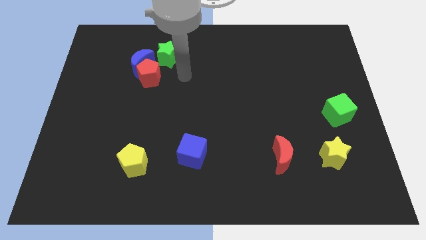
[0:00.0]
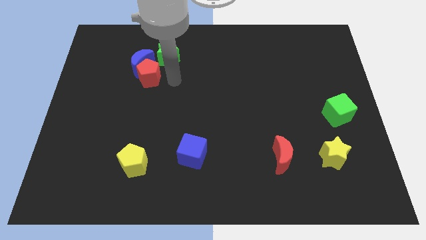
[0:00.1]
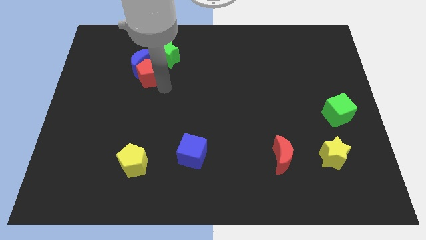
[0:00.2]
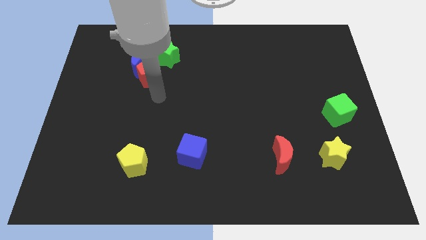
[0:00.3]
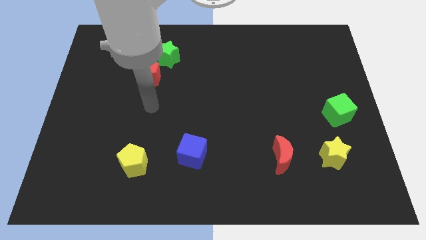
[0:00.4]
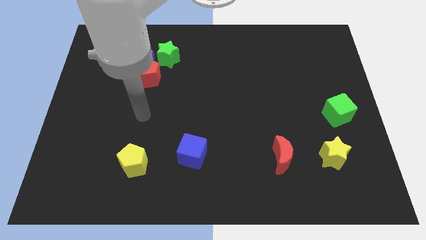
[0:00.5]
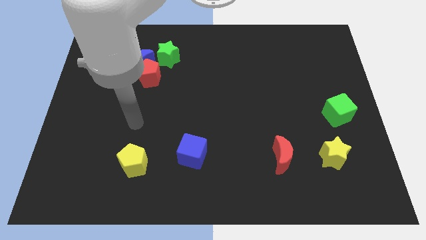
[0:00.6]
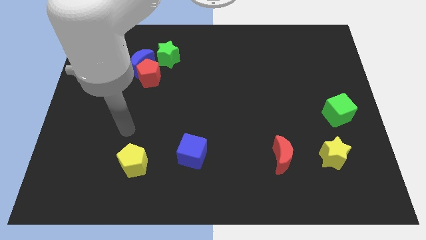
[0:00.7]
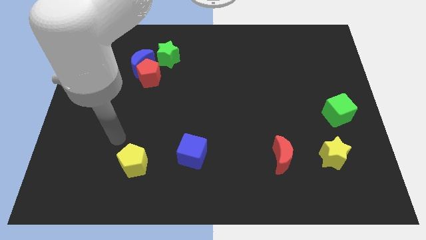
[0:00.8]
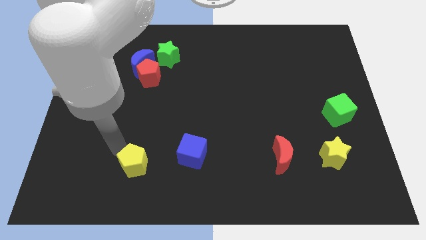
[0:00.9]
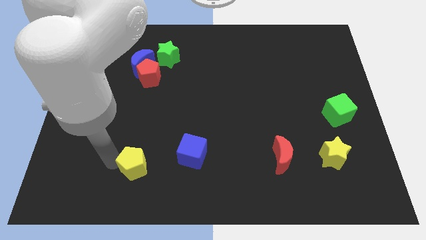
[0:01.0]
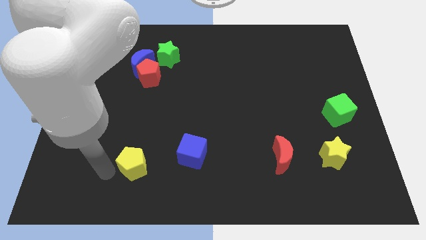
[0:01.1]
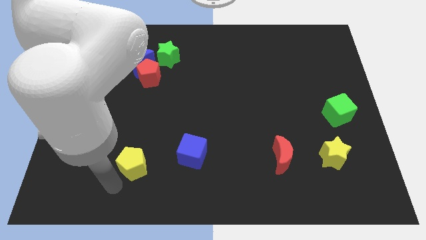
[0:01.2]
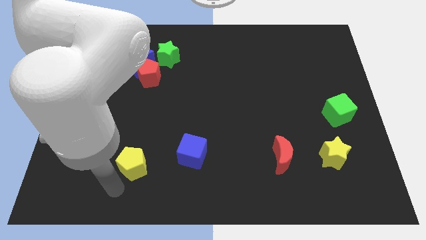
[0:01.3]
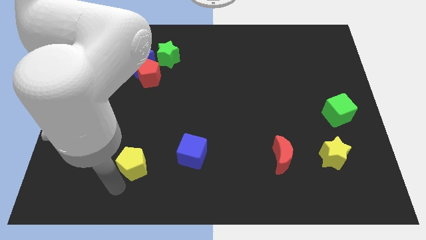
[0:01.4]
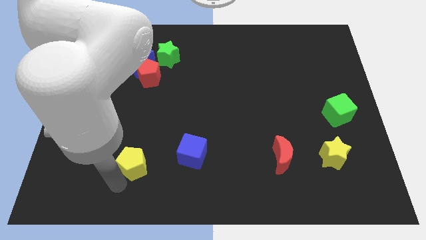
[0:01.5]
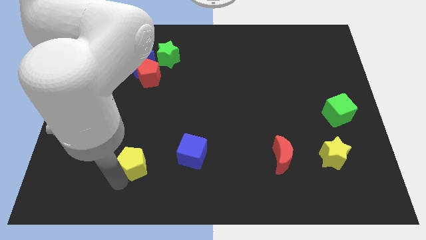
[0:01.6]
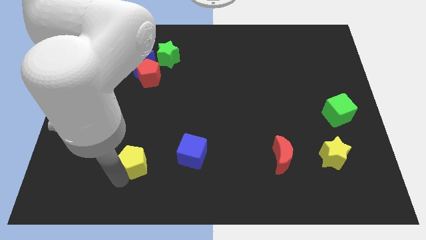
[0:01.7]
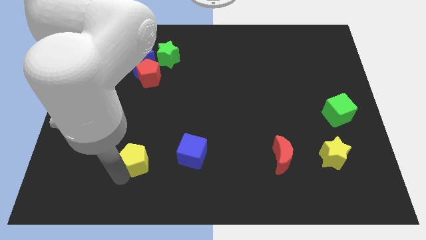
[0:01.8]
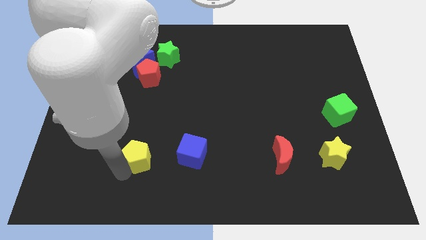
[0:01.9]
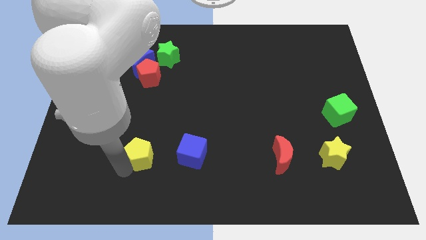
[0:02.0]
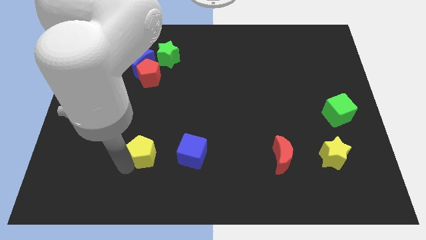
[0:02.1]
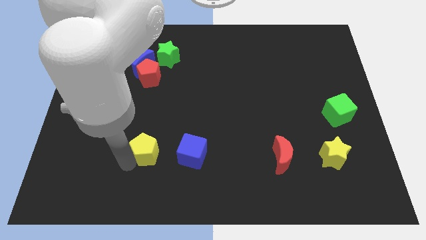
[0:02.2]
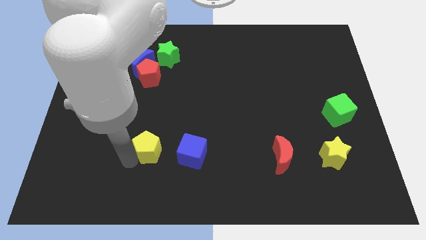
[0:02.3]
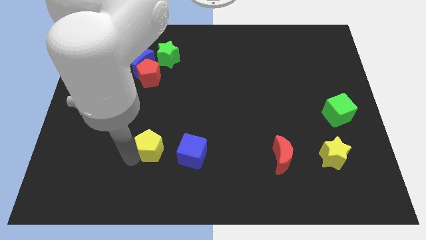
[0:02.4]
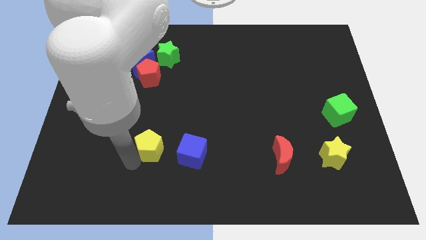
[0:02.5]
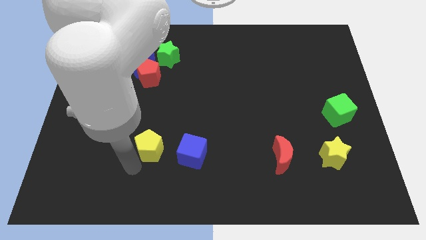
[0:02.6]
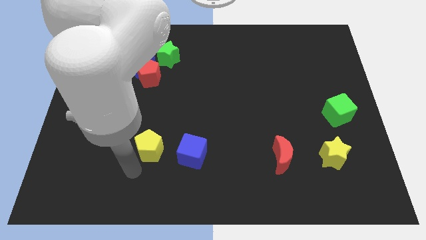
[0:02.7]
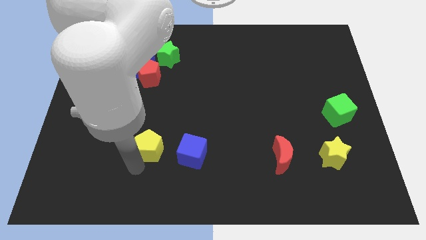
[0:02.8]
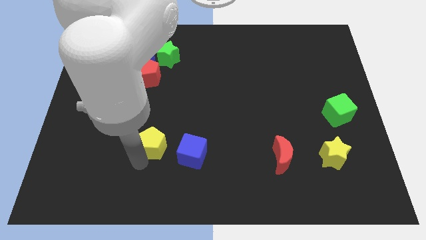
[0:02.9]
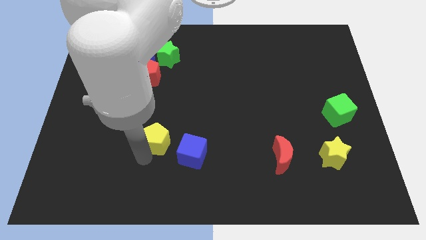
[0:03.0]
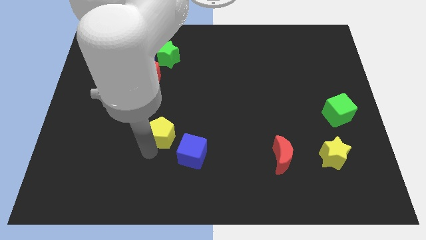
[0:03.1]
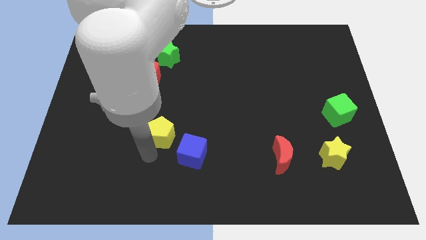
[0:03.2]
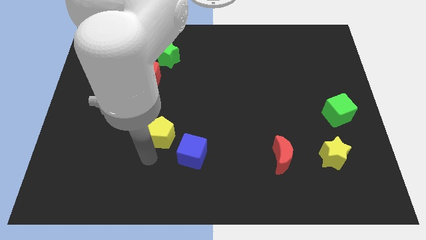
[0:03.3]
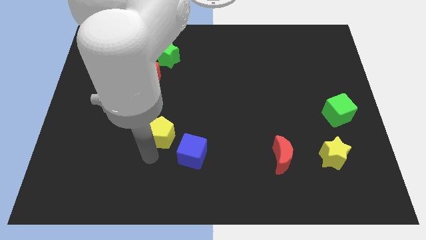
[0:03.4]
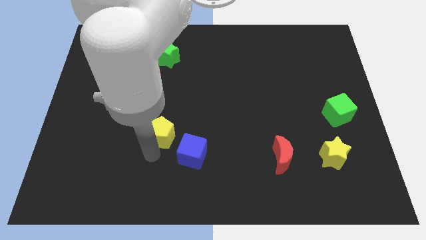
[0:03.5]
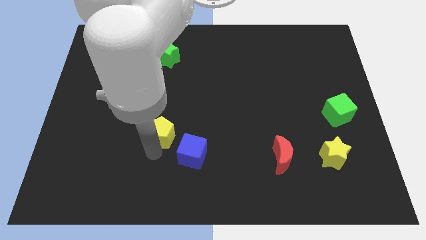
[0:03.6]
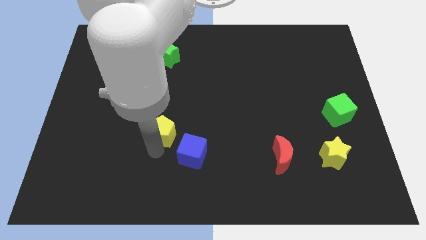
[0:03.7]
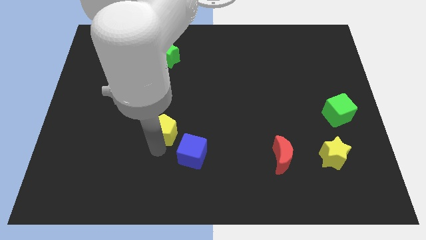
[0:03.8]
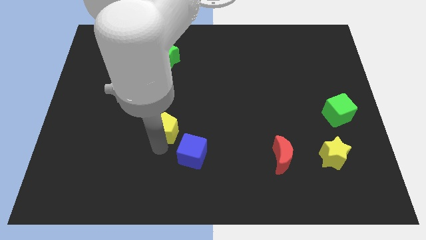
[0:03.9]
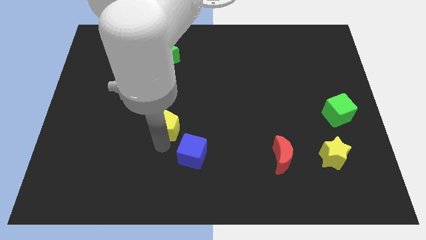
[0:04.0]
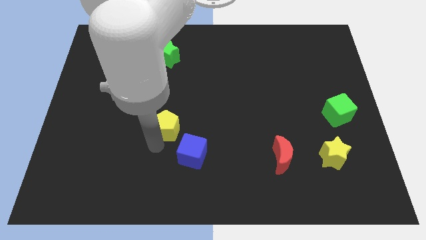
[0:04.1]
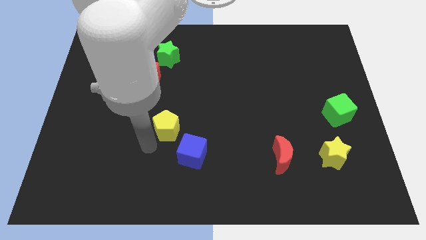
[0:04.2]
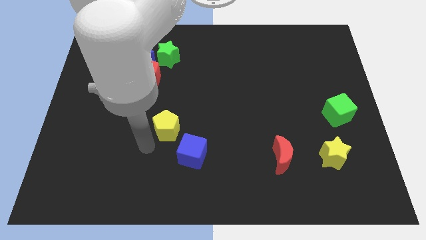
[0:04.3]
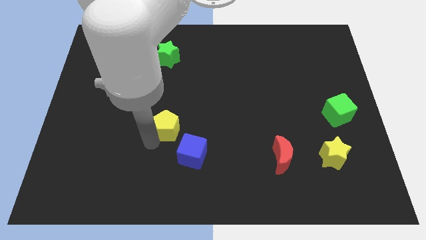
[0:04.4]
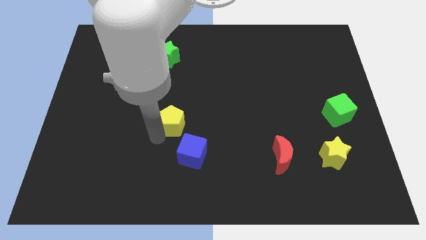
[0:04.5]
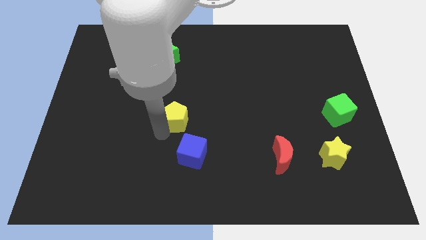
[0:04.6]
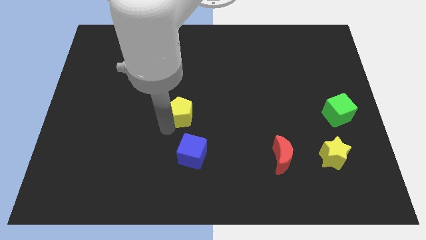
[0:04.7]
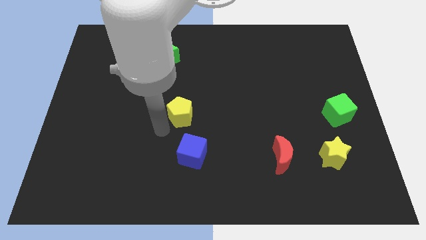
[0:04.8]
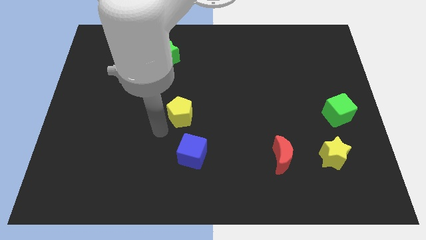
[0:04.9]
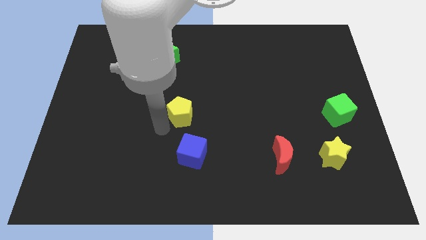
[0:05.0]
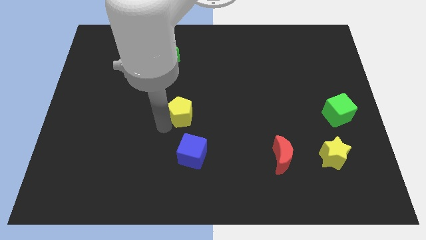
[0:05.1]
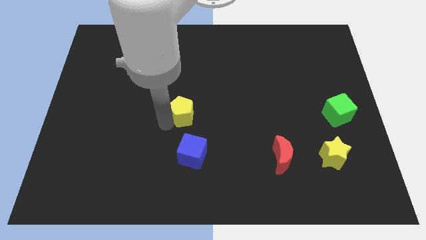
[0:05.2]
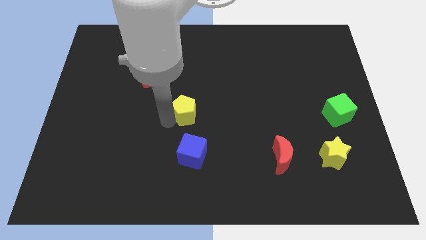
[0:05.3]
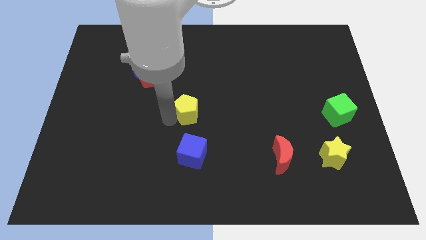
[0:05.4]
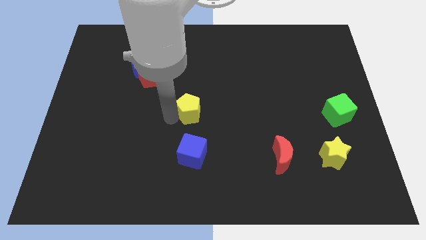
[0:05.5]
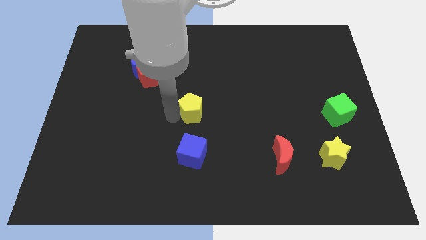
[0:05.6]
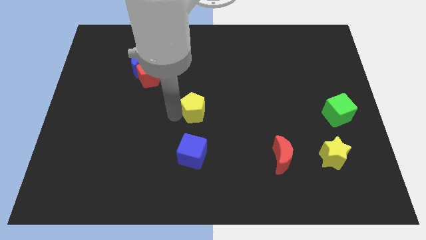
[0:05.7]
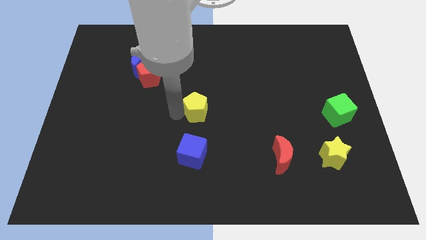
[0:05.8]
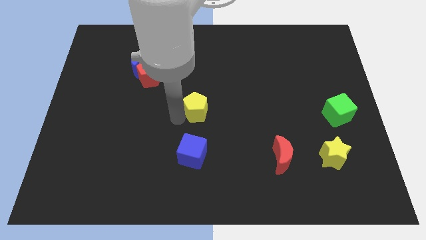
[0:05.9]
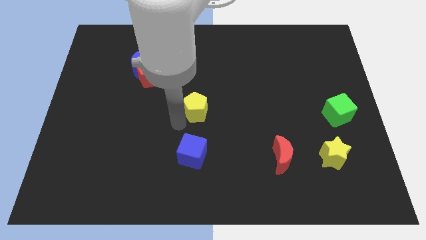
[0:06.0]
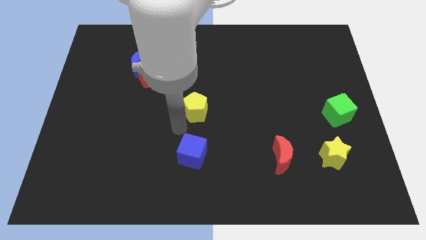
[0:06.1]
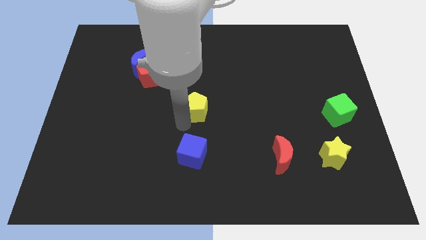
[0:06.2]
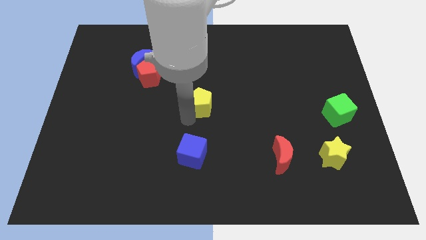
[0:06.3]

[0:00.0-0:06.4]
slide the yellow pentagon up and right

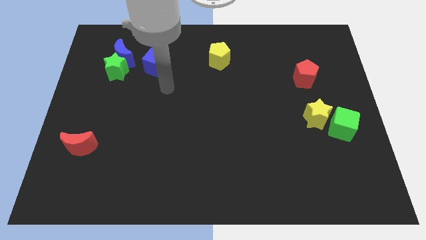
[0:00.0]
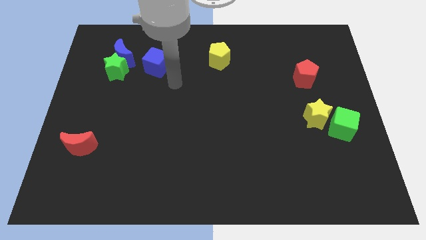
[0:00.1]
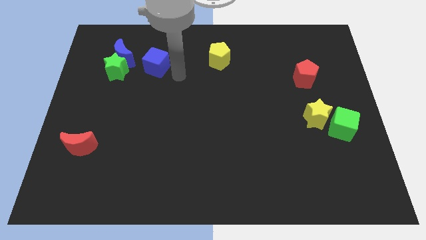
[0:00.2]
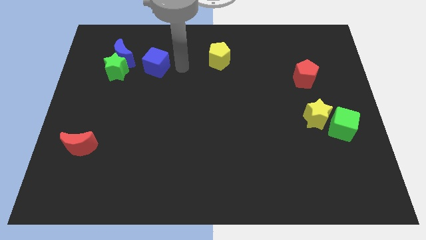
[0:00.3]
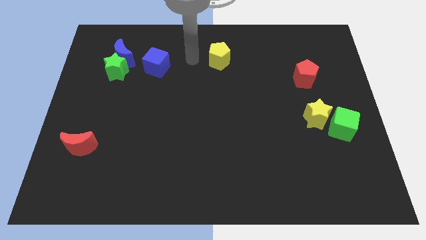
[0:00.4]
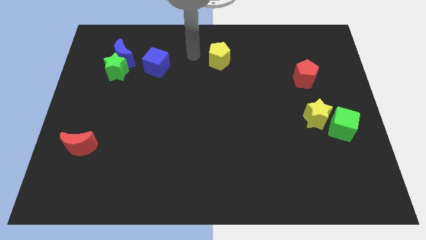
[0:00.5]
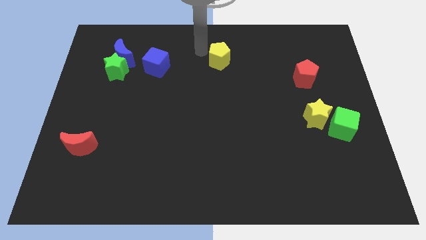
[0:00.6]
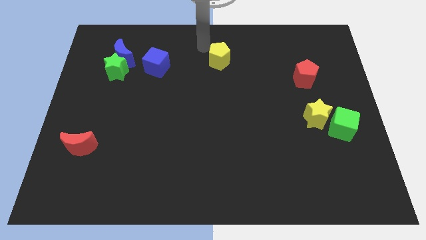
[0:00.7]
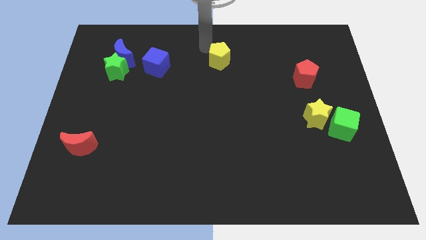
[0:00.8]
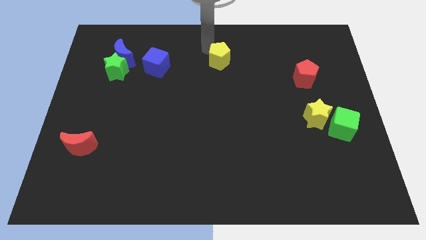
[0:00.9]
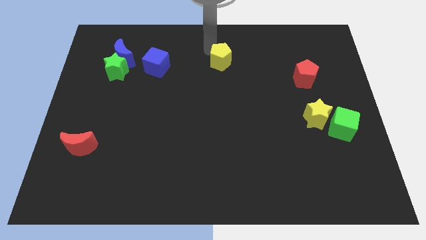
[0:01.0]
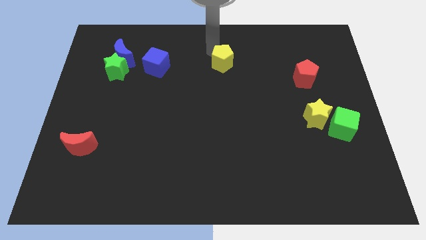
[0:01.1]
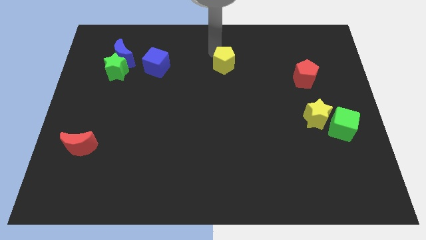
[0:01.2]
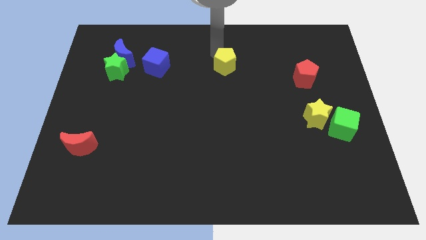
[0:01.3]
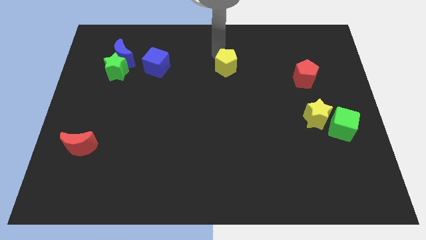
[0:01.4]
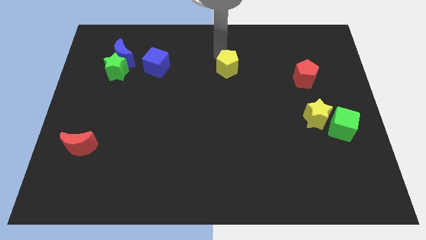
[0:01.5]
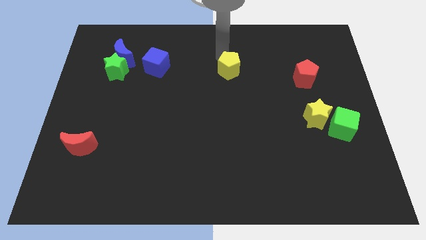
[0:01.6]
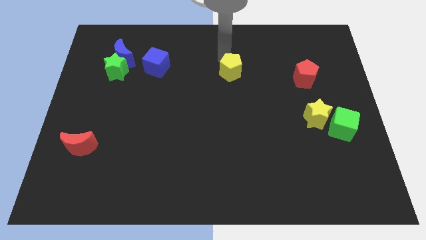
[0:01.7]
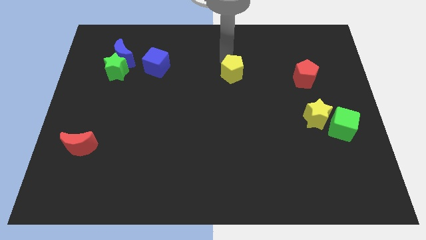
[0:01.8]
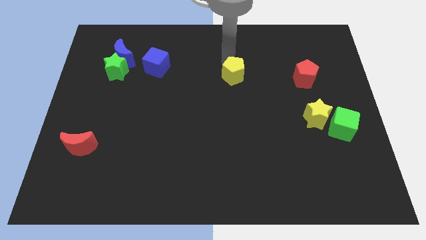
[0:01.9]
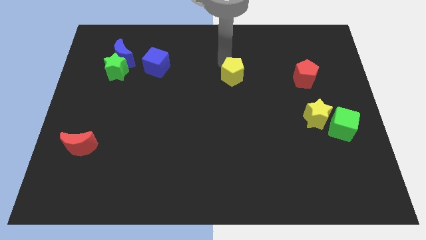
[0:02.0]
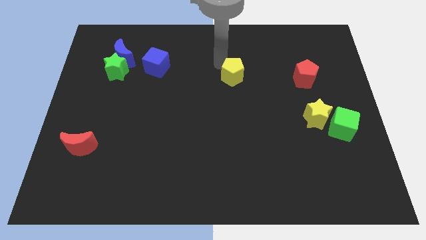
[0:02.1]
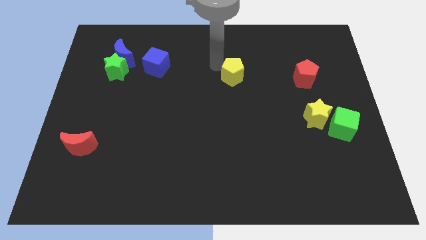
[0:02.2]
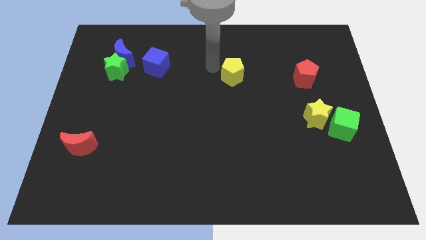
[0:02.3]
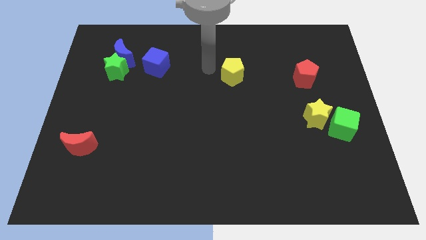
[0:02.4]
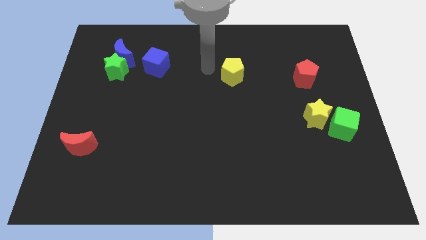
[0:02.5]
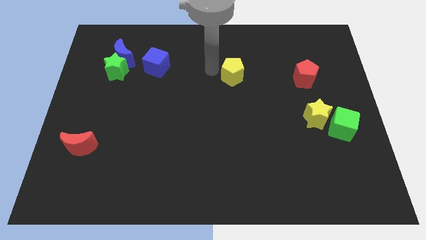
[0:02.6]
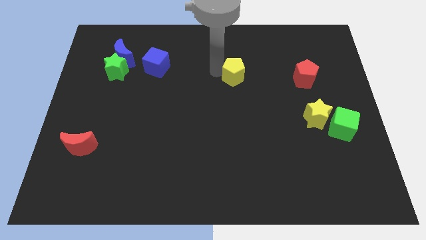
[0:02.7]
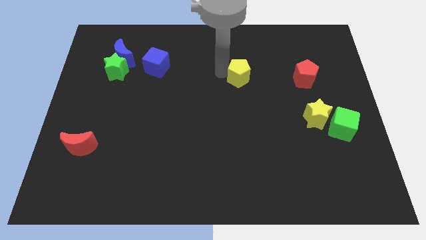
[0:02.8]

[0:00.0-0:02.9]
move the yellow pentagon diagonally down and right a little
